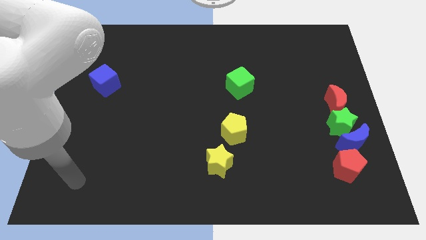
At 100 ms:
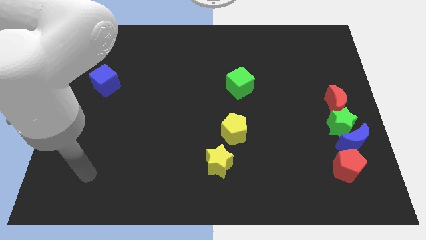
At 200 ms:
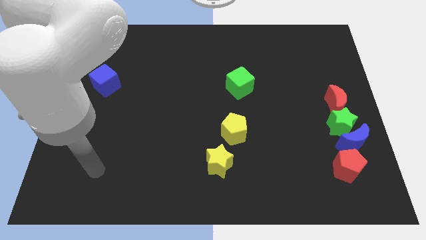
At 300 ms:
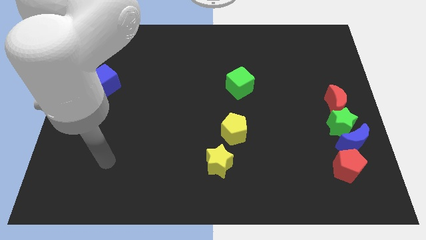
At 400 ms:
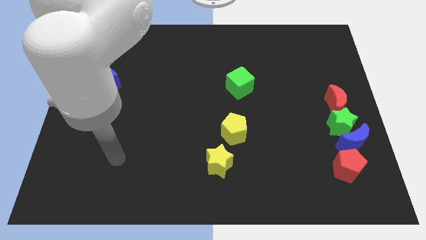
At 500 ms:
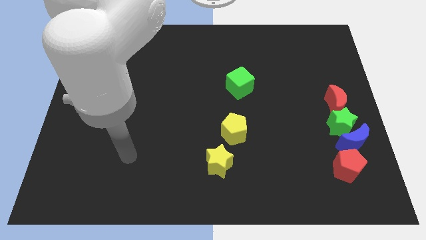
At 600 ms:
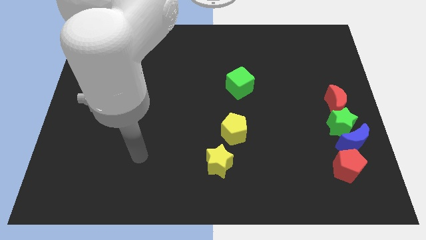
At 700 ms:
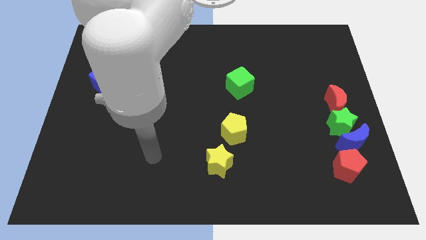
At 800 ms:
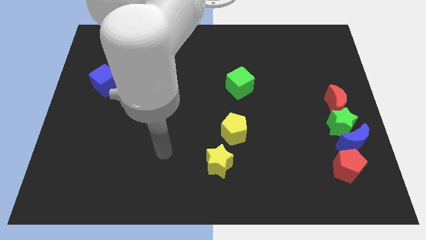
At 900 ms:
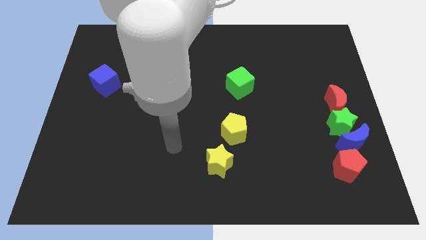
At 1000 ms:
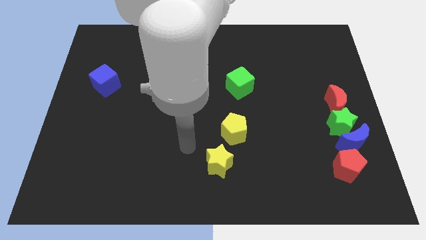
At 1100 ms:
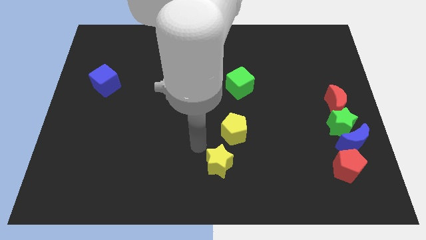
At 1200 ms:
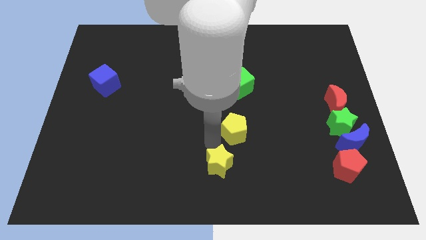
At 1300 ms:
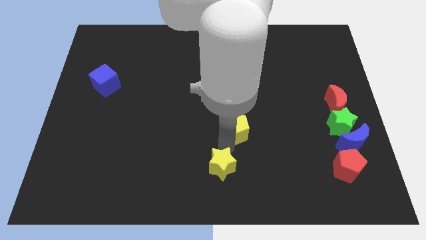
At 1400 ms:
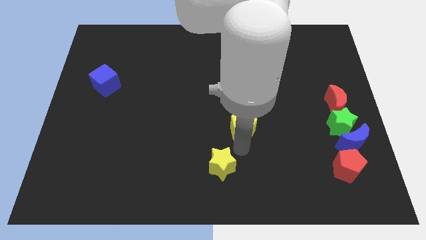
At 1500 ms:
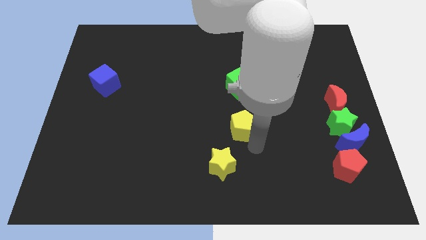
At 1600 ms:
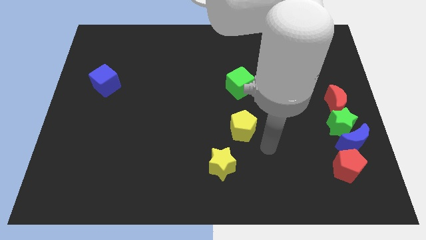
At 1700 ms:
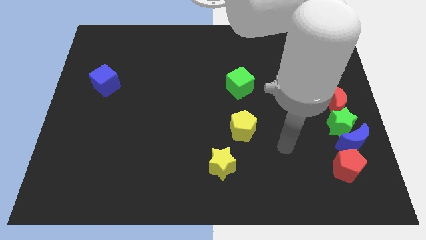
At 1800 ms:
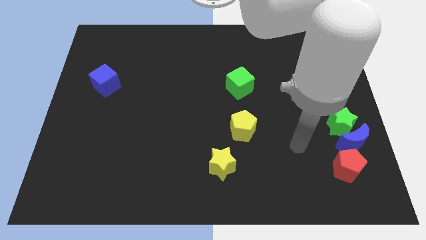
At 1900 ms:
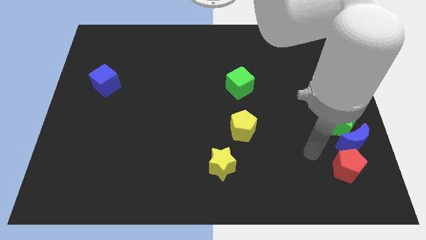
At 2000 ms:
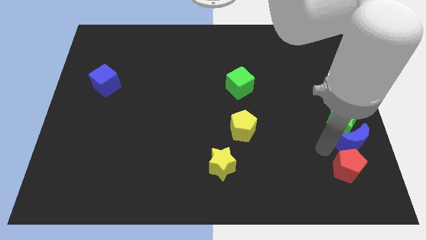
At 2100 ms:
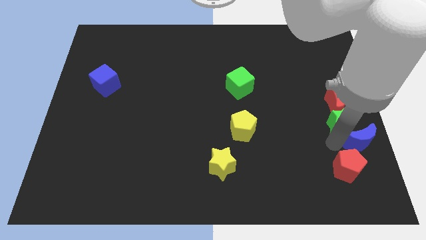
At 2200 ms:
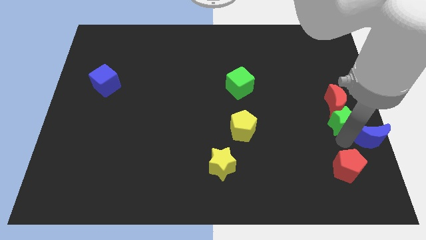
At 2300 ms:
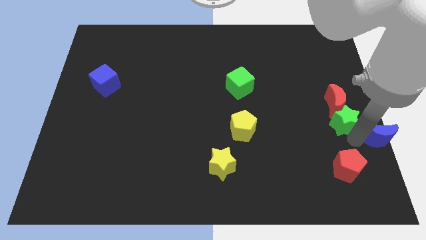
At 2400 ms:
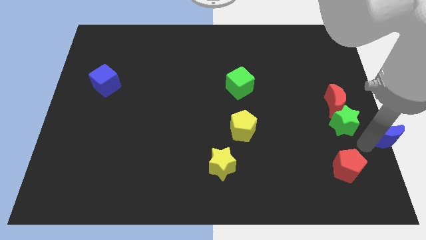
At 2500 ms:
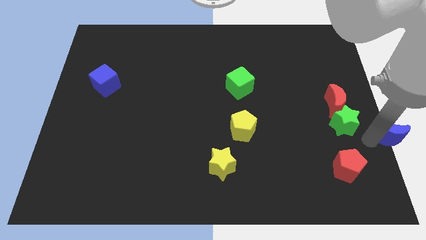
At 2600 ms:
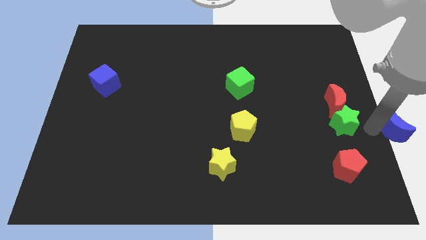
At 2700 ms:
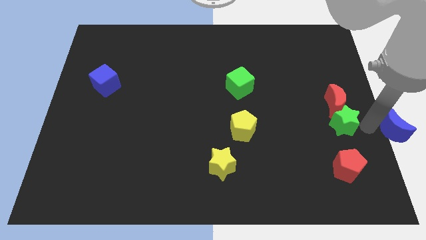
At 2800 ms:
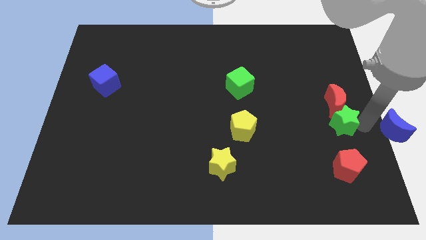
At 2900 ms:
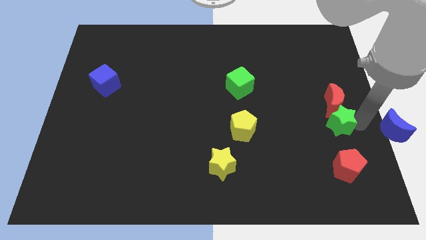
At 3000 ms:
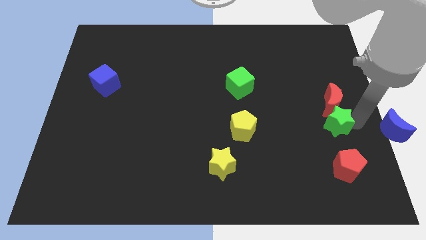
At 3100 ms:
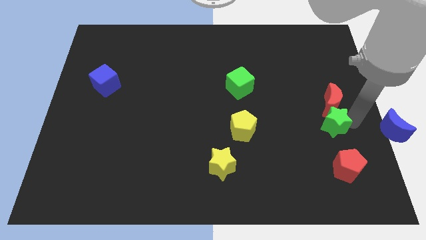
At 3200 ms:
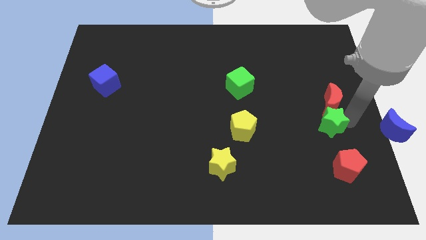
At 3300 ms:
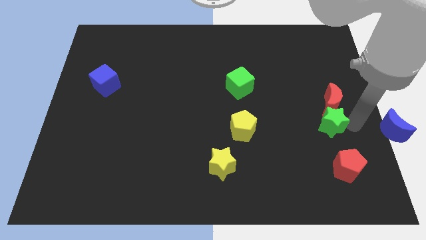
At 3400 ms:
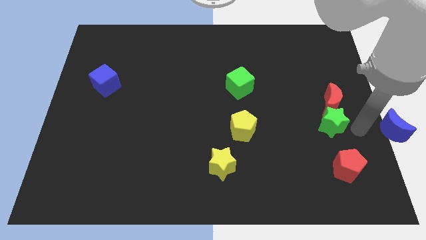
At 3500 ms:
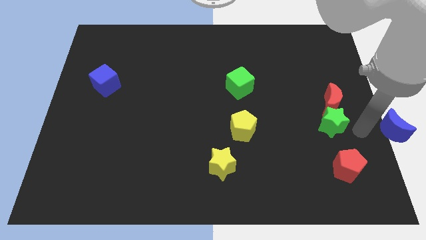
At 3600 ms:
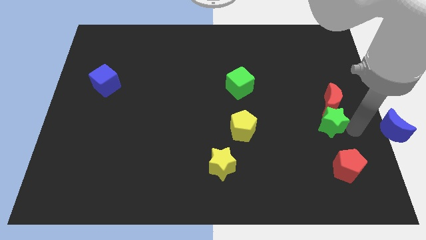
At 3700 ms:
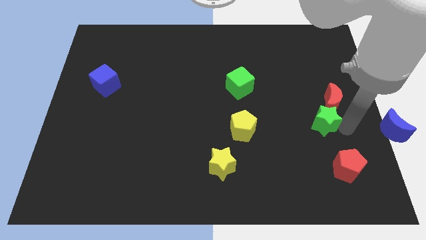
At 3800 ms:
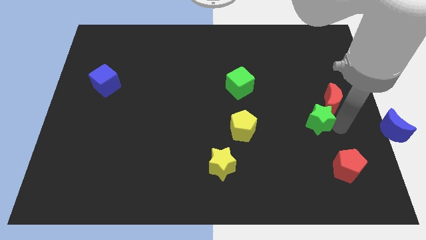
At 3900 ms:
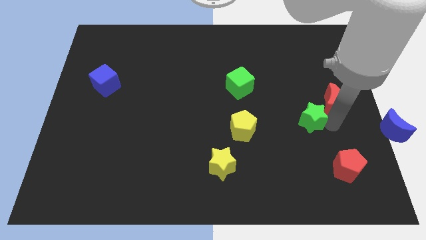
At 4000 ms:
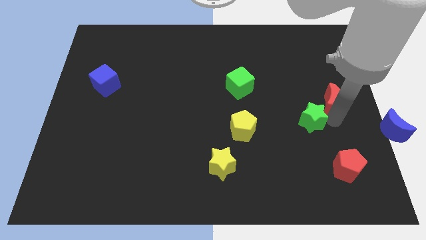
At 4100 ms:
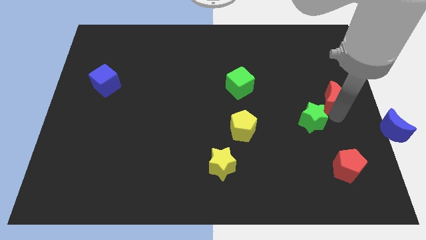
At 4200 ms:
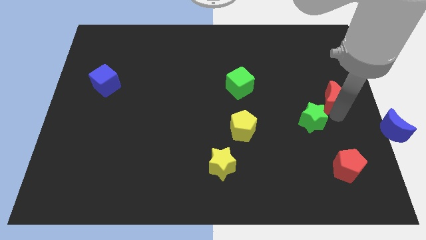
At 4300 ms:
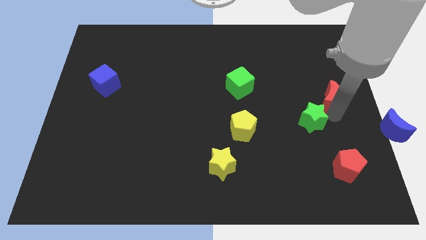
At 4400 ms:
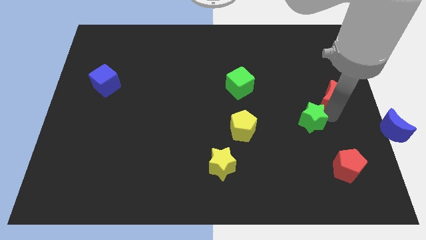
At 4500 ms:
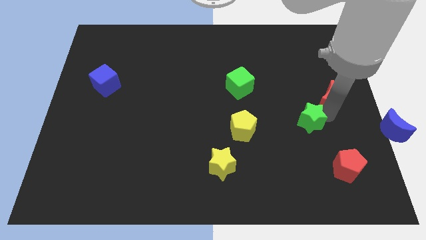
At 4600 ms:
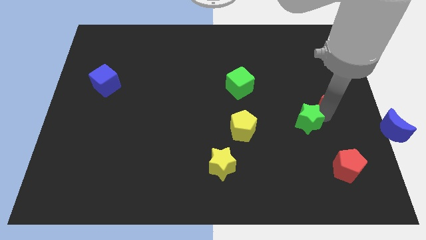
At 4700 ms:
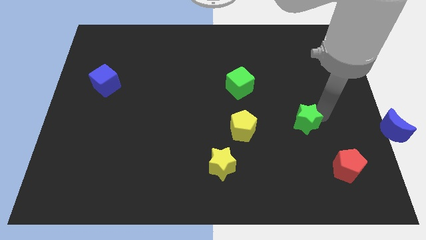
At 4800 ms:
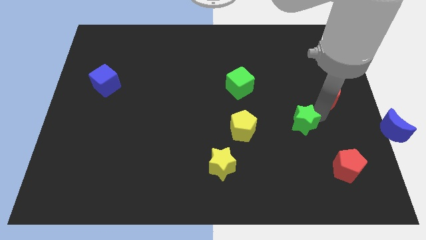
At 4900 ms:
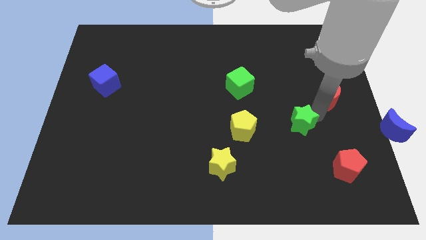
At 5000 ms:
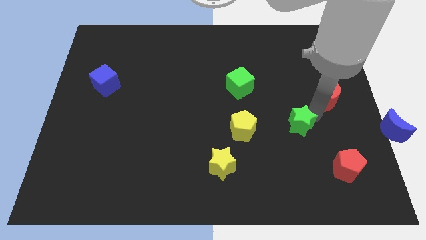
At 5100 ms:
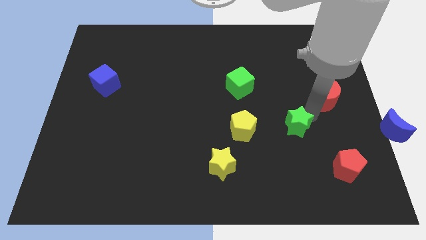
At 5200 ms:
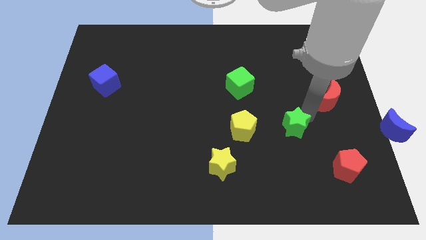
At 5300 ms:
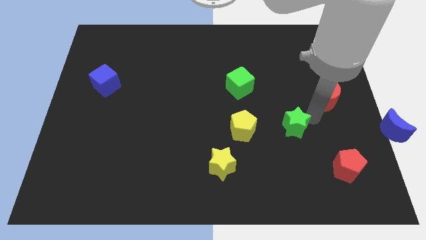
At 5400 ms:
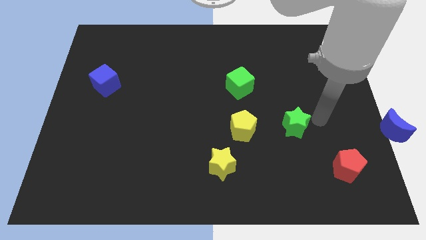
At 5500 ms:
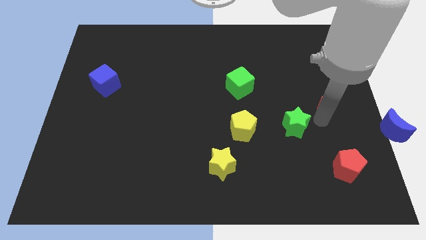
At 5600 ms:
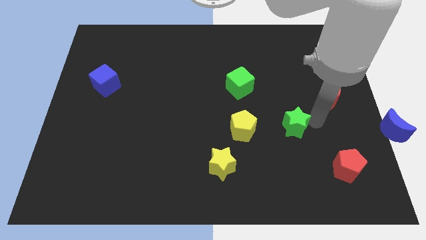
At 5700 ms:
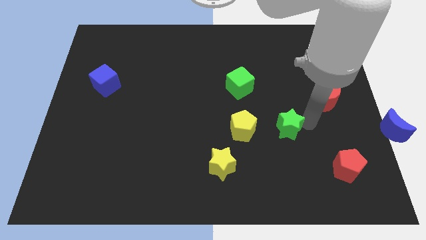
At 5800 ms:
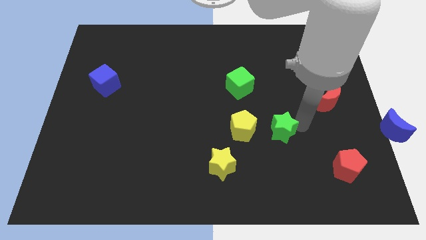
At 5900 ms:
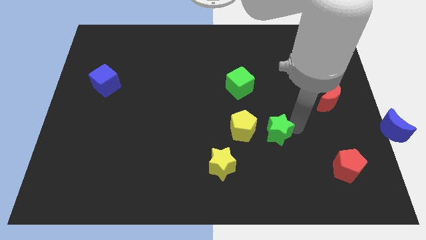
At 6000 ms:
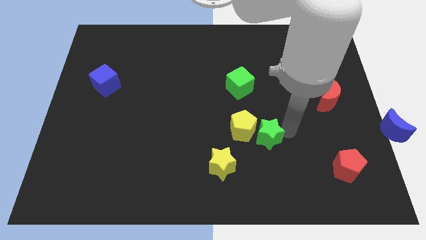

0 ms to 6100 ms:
slide the green star to the yellow pentagon

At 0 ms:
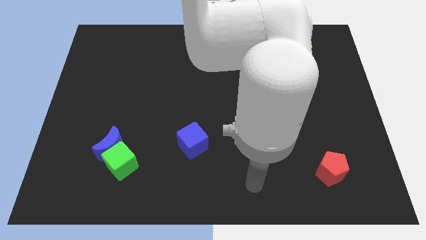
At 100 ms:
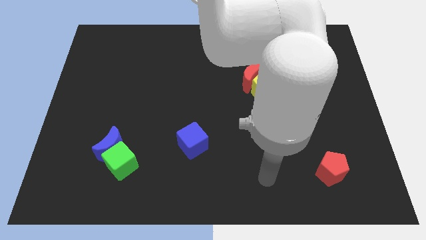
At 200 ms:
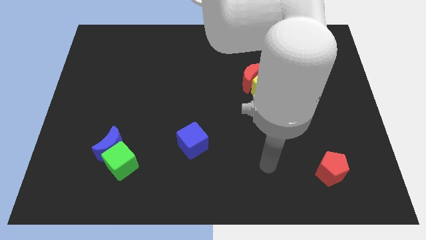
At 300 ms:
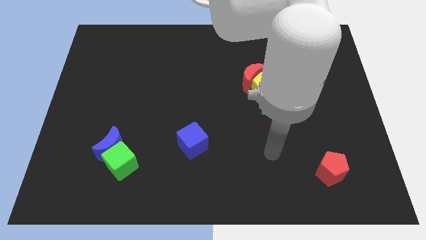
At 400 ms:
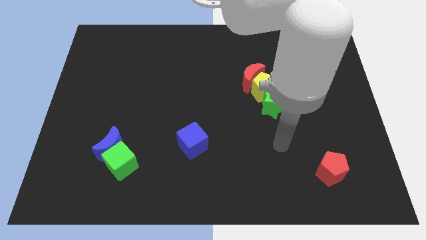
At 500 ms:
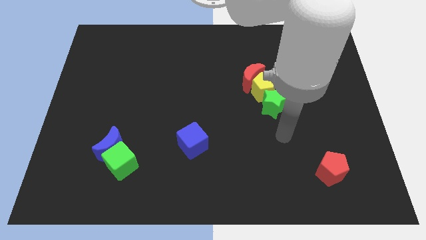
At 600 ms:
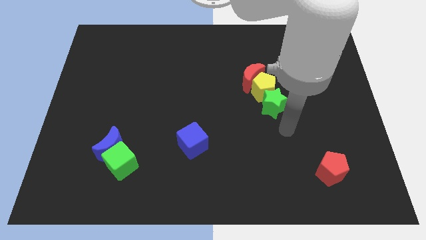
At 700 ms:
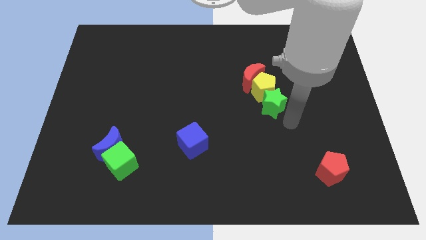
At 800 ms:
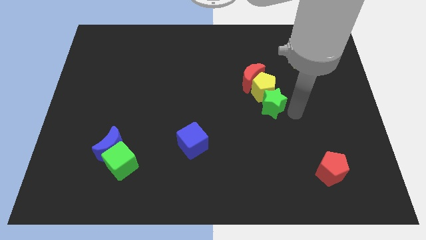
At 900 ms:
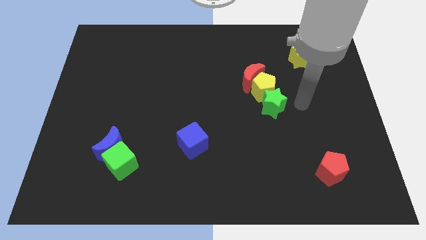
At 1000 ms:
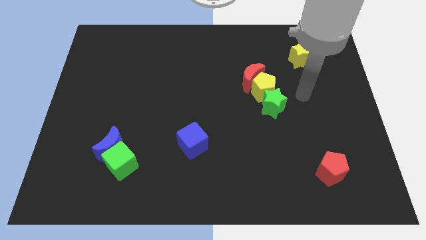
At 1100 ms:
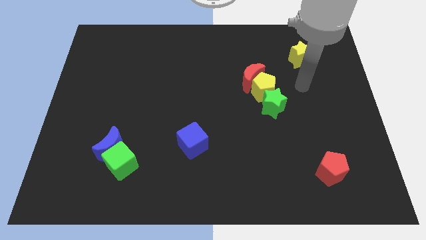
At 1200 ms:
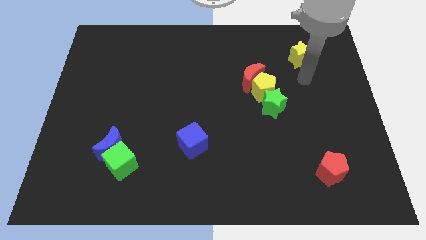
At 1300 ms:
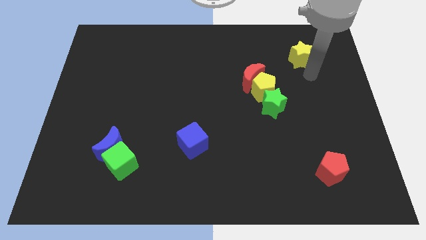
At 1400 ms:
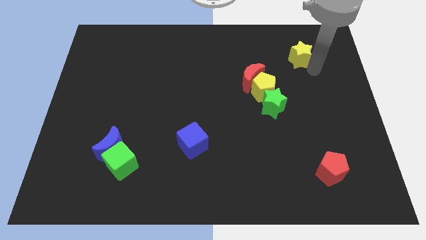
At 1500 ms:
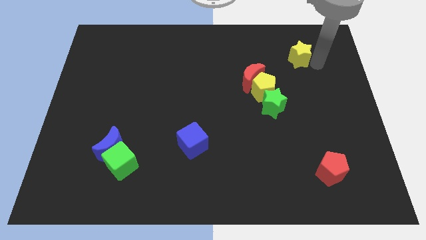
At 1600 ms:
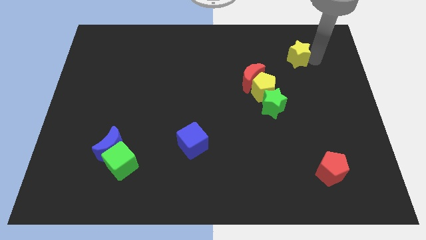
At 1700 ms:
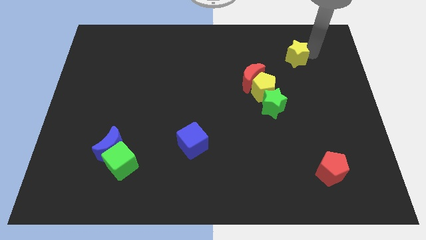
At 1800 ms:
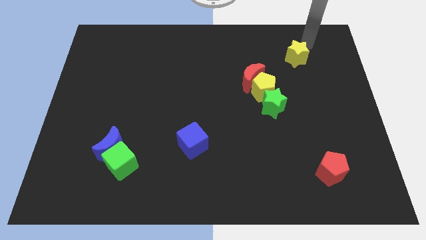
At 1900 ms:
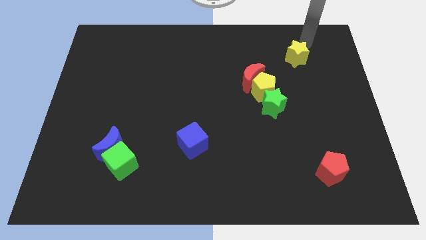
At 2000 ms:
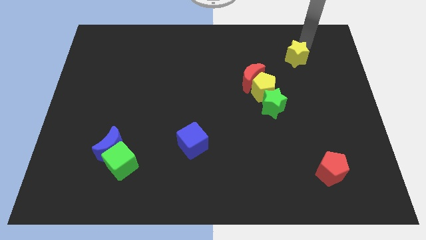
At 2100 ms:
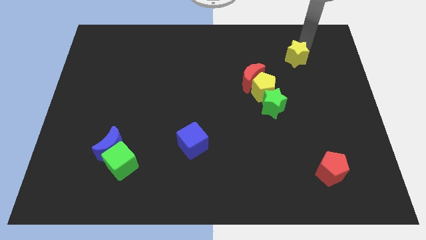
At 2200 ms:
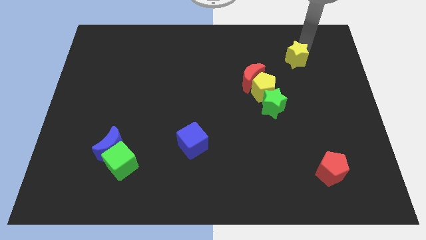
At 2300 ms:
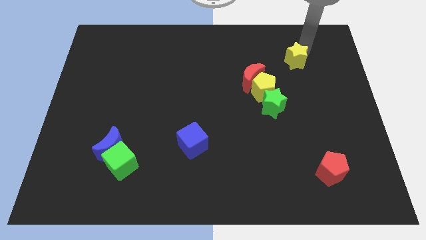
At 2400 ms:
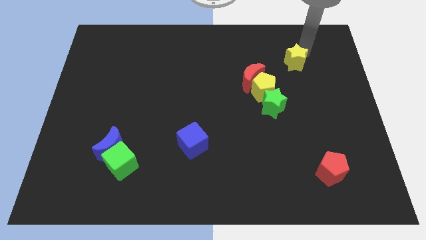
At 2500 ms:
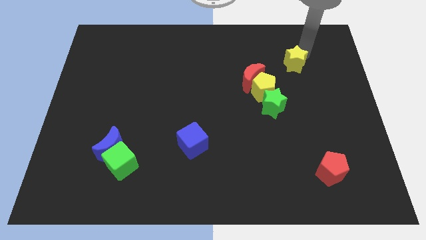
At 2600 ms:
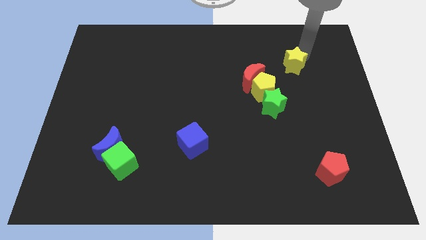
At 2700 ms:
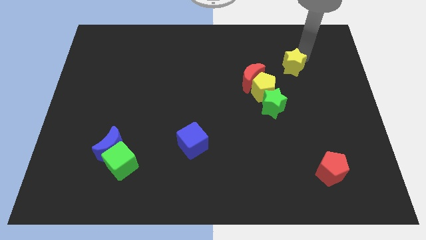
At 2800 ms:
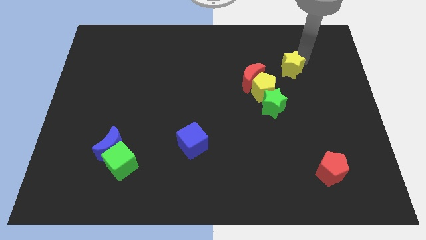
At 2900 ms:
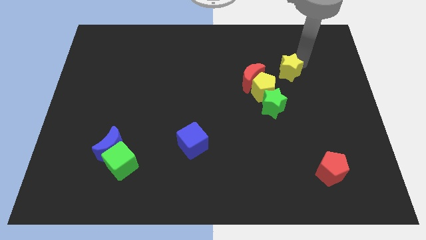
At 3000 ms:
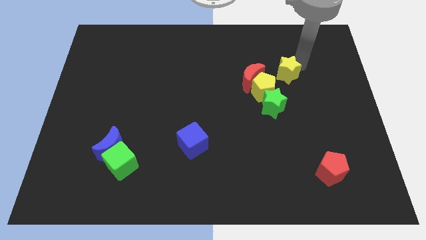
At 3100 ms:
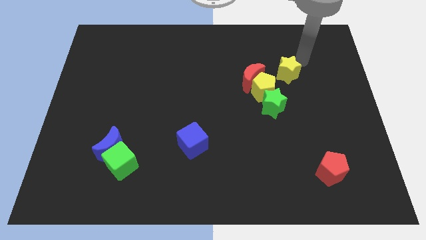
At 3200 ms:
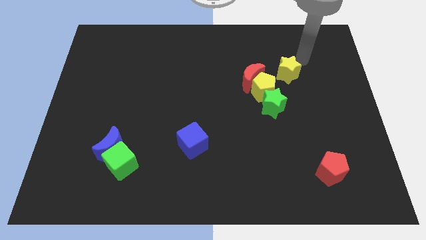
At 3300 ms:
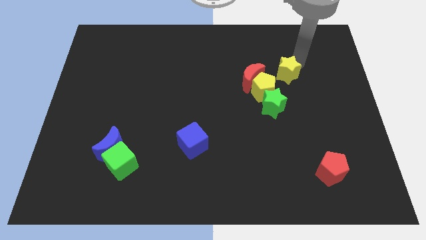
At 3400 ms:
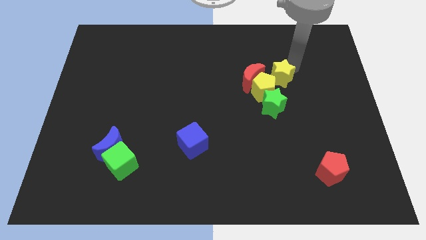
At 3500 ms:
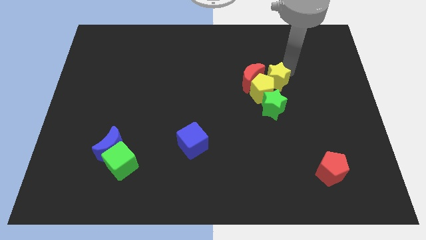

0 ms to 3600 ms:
put the yellow star close to the yellow pentagon
